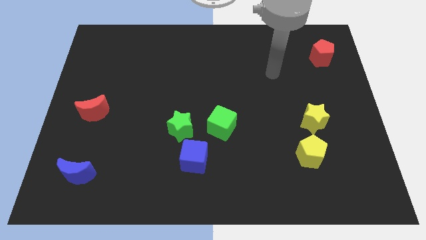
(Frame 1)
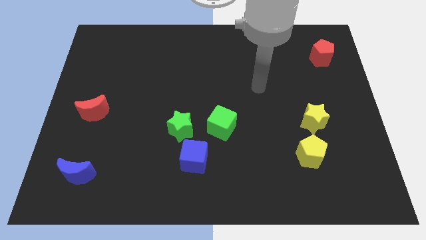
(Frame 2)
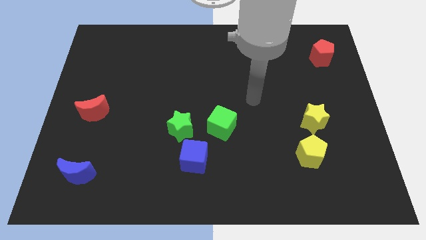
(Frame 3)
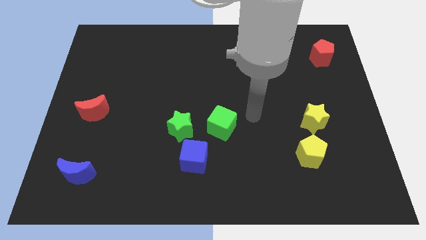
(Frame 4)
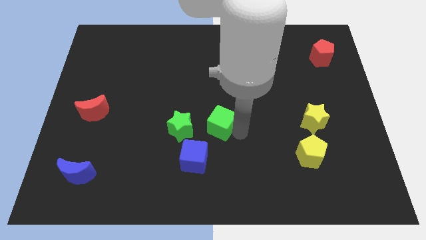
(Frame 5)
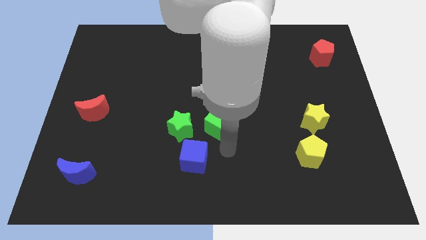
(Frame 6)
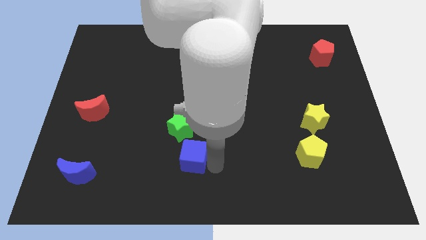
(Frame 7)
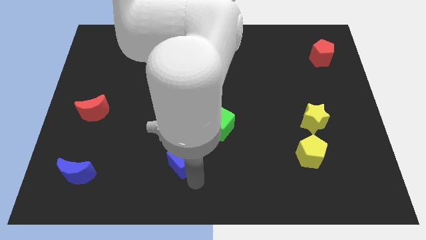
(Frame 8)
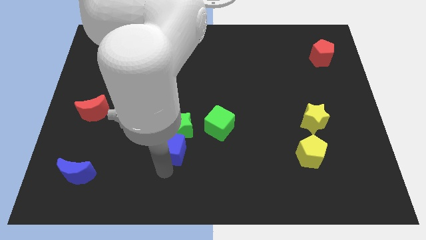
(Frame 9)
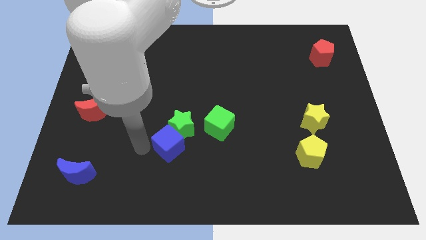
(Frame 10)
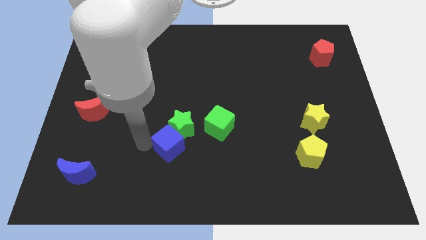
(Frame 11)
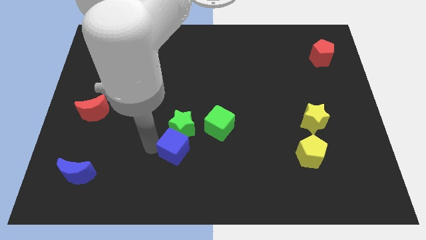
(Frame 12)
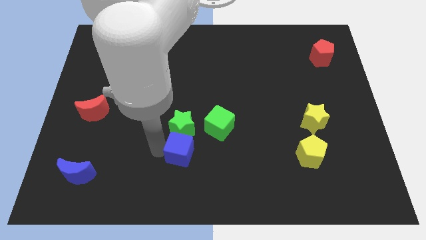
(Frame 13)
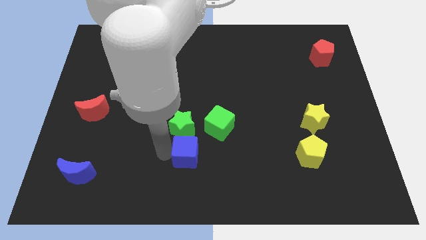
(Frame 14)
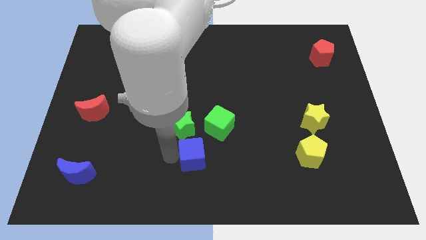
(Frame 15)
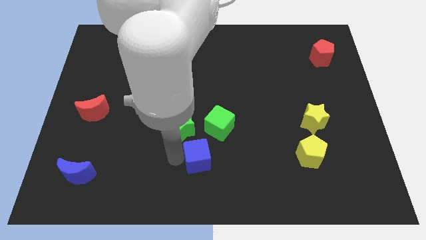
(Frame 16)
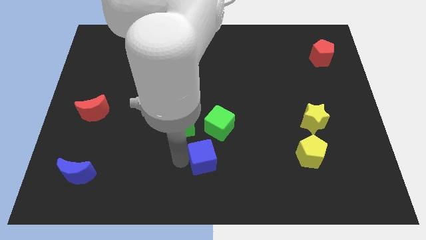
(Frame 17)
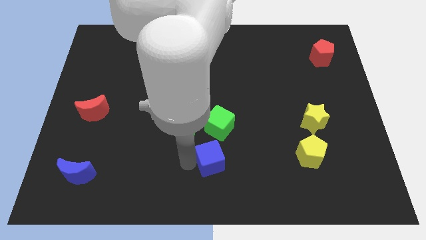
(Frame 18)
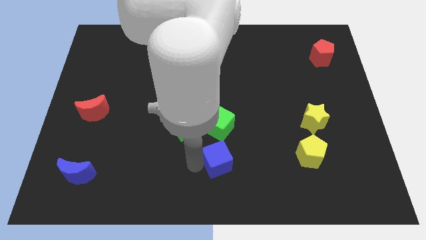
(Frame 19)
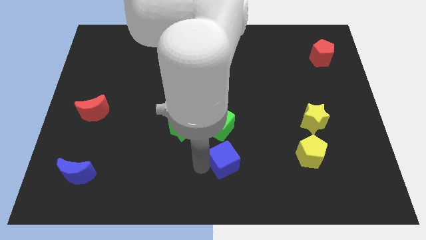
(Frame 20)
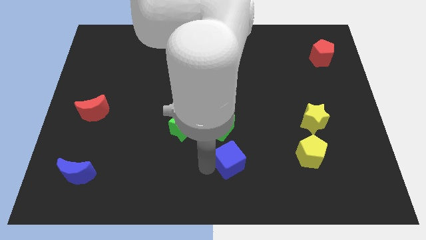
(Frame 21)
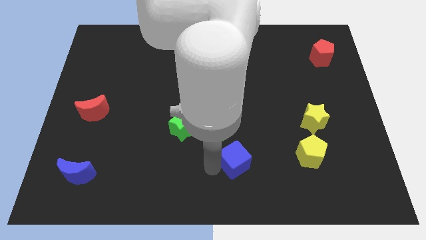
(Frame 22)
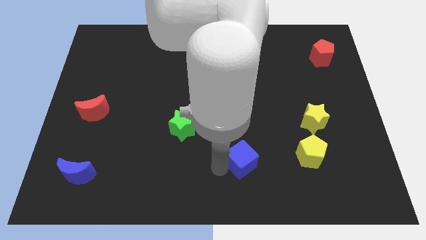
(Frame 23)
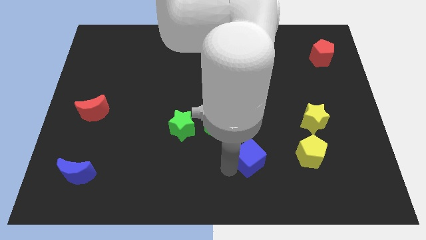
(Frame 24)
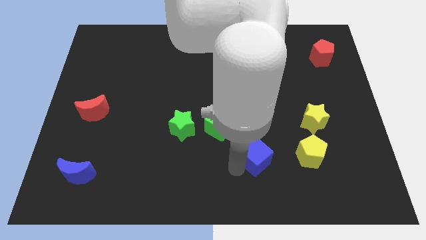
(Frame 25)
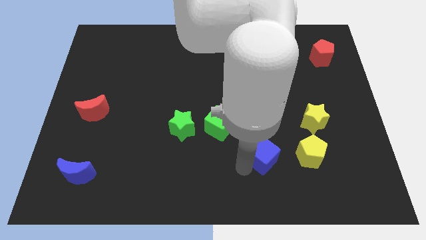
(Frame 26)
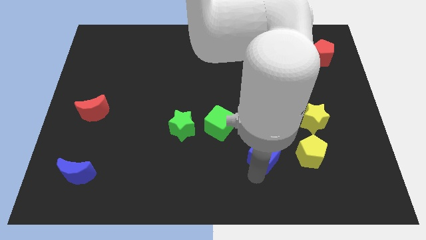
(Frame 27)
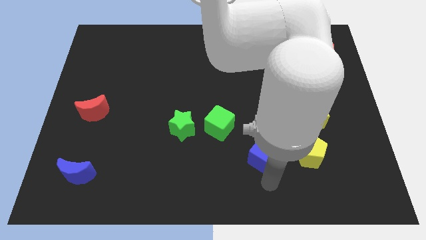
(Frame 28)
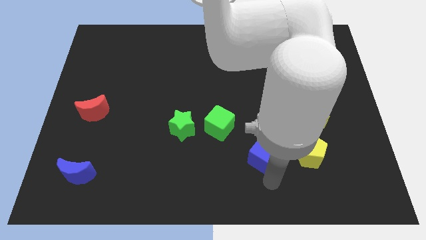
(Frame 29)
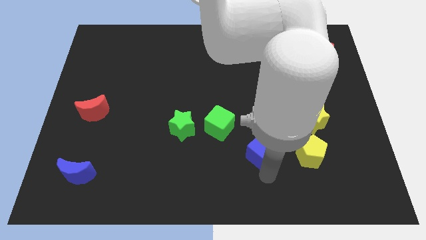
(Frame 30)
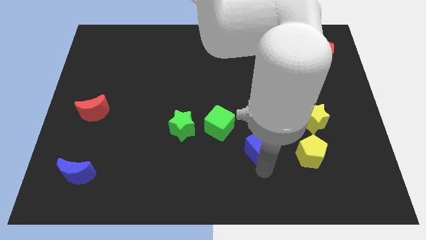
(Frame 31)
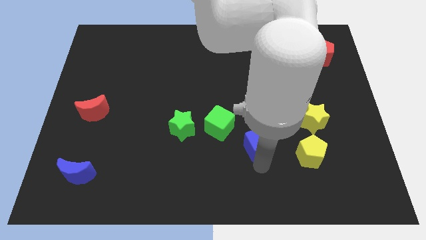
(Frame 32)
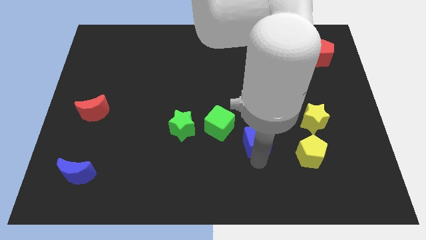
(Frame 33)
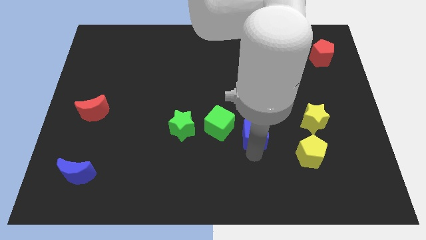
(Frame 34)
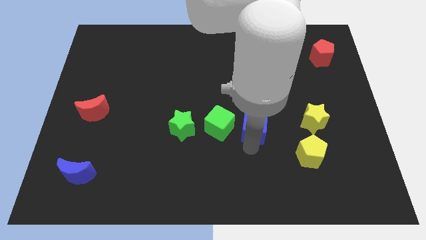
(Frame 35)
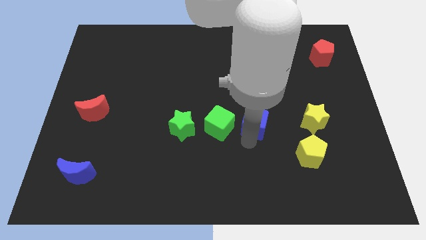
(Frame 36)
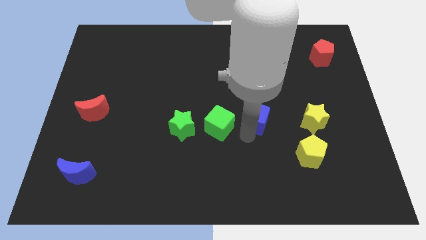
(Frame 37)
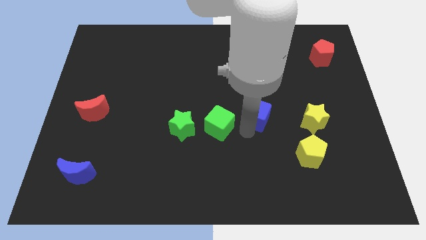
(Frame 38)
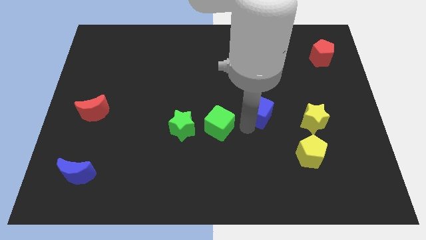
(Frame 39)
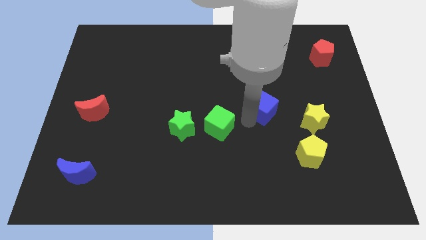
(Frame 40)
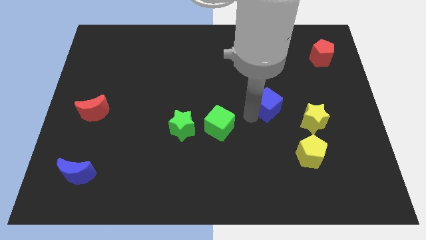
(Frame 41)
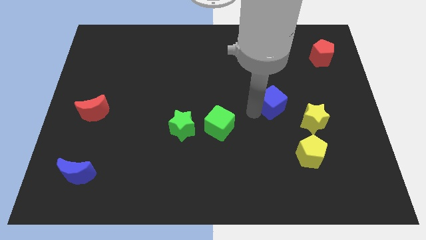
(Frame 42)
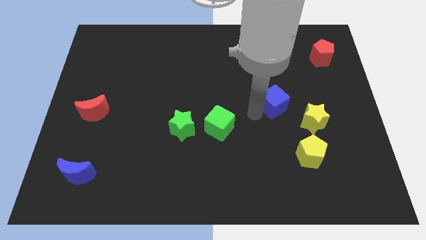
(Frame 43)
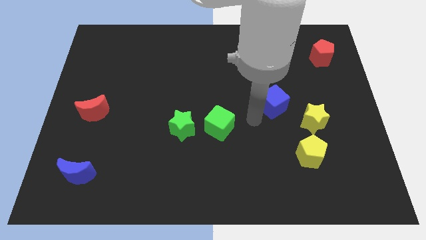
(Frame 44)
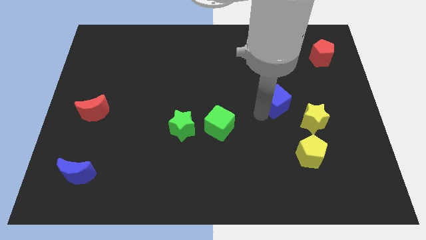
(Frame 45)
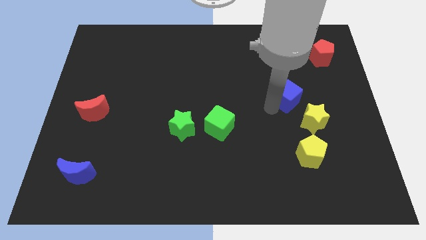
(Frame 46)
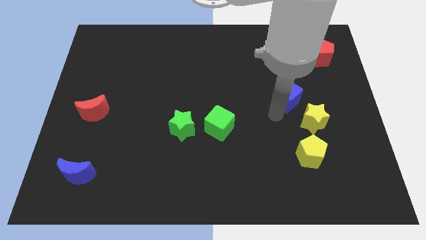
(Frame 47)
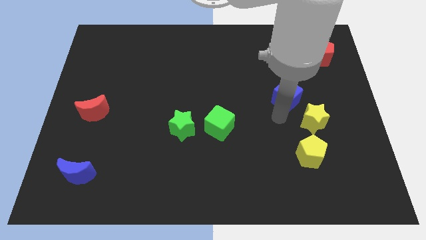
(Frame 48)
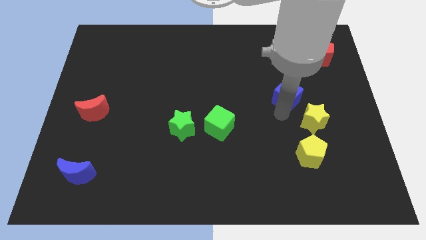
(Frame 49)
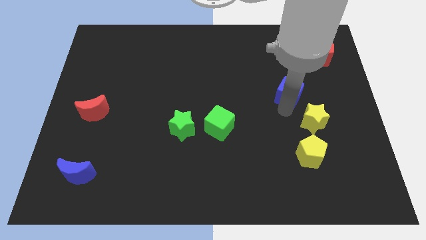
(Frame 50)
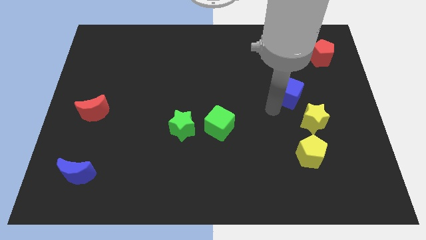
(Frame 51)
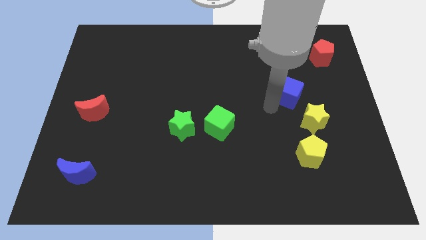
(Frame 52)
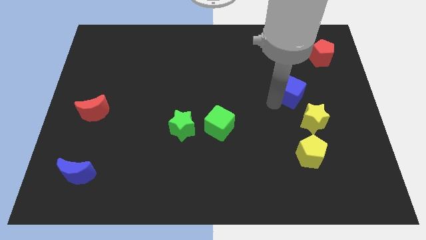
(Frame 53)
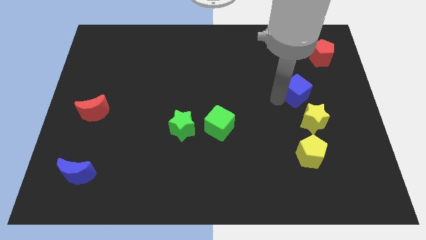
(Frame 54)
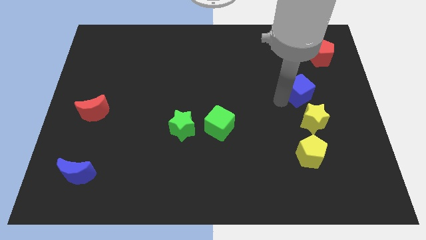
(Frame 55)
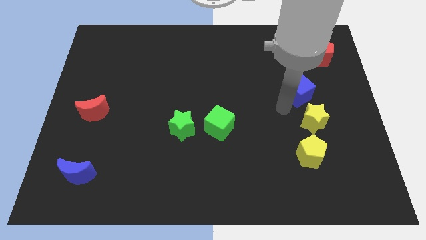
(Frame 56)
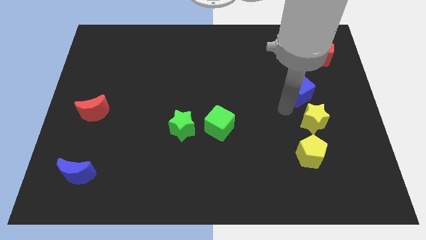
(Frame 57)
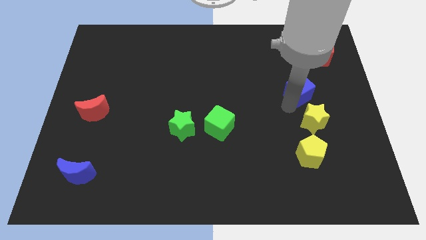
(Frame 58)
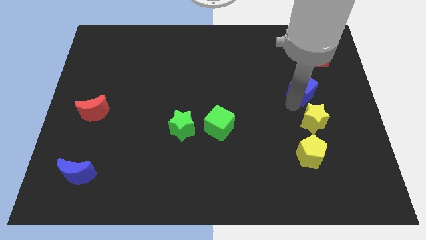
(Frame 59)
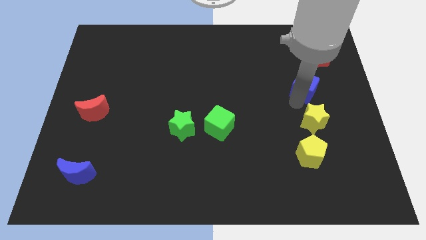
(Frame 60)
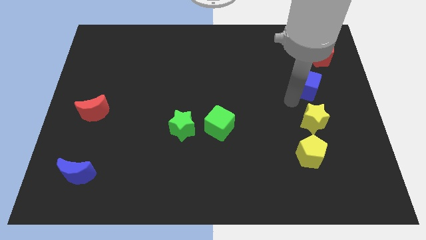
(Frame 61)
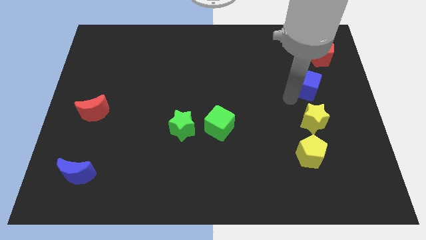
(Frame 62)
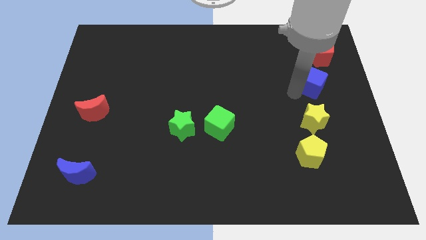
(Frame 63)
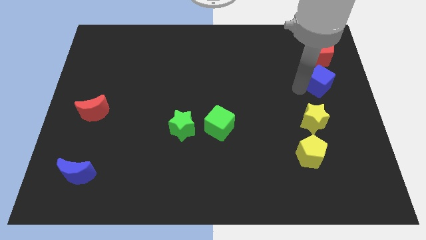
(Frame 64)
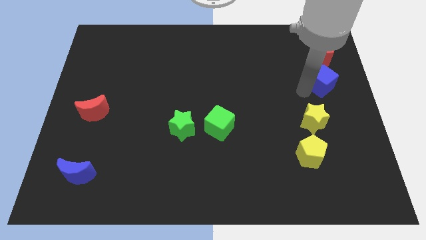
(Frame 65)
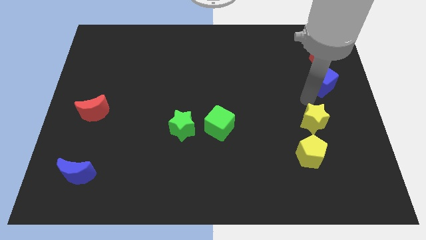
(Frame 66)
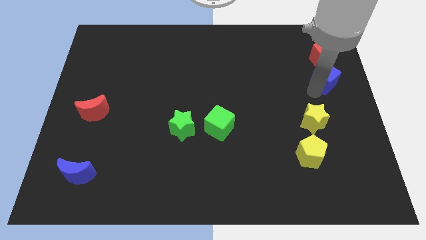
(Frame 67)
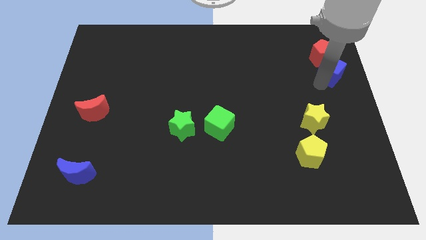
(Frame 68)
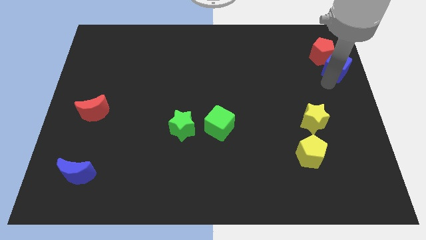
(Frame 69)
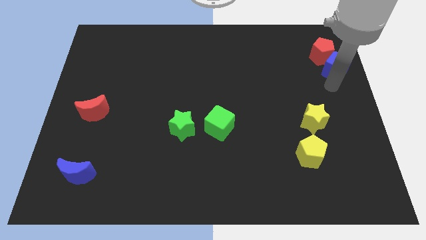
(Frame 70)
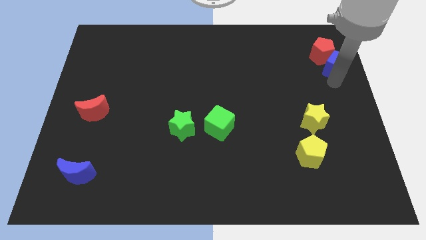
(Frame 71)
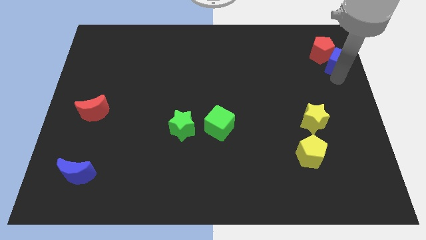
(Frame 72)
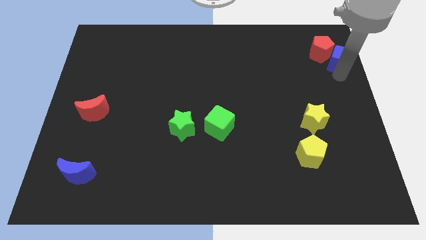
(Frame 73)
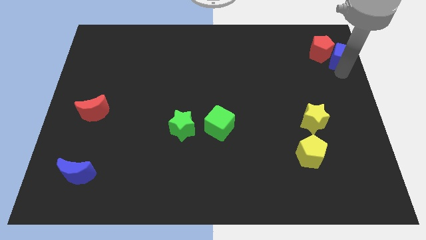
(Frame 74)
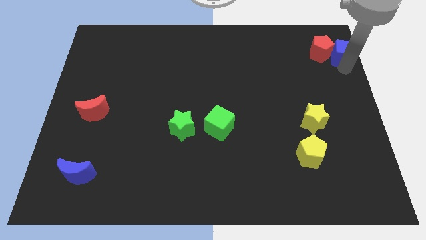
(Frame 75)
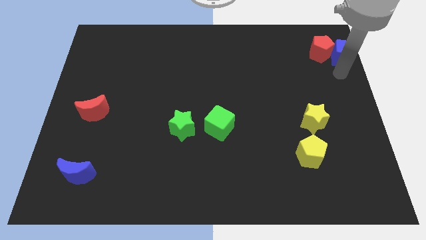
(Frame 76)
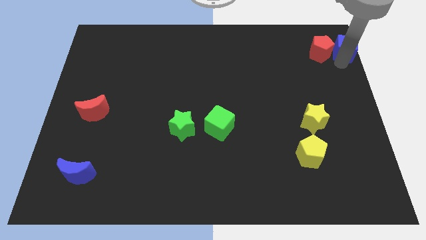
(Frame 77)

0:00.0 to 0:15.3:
push the blue cube to the top right of the board
